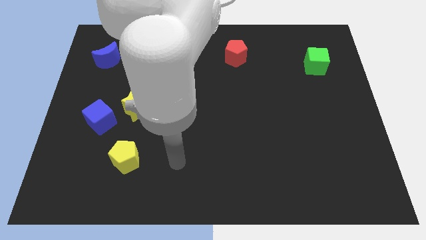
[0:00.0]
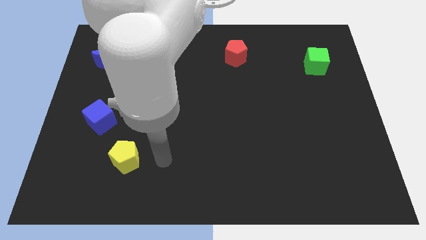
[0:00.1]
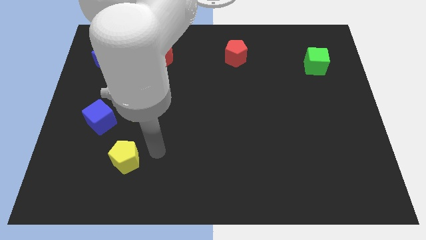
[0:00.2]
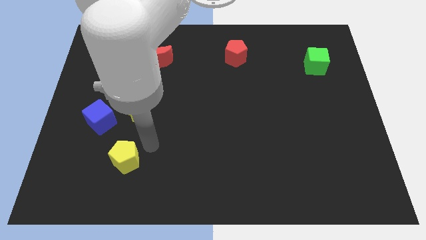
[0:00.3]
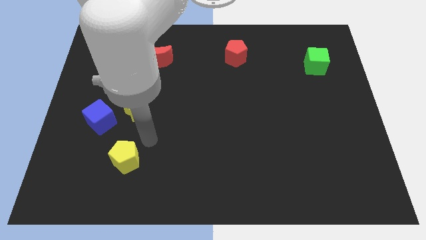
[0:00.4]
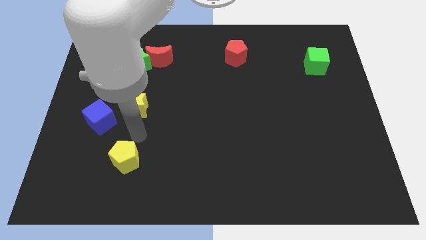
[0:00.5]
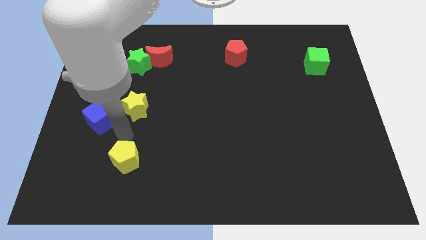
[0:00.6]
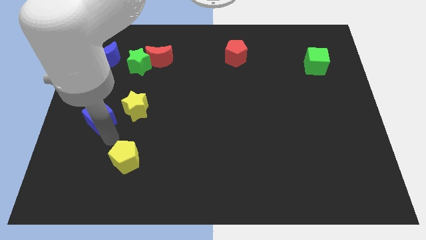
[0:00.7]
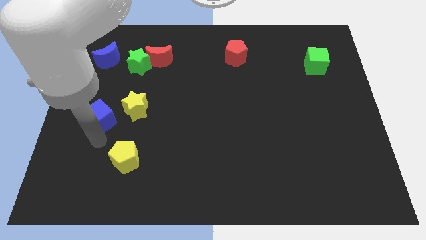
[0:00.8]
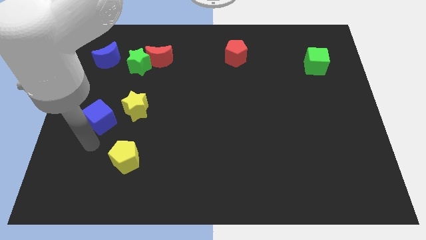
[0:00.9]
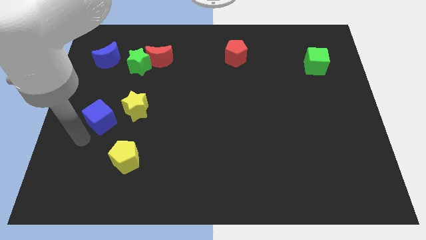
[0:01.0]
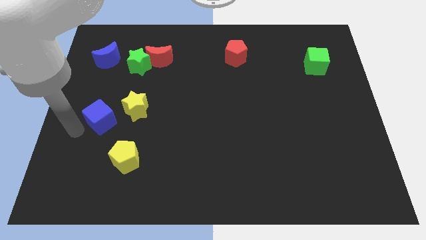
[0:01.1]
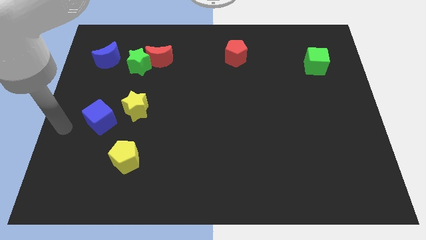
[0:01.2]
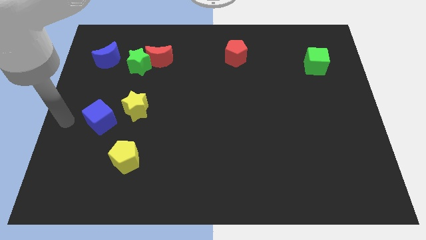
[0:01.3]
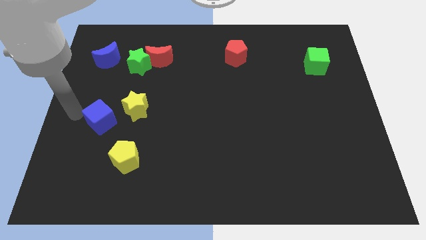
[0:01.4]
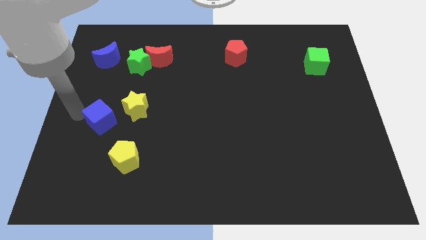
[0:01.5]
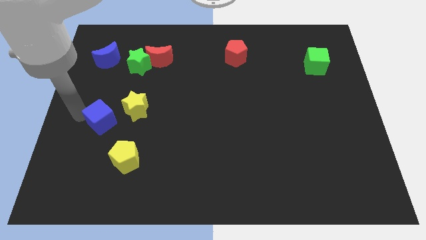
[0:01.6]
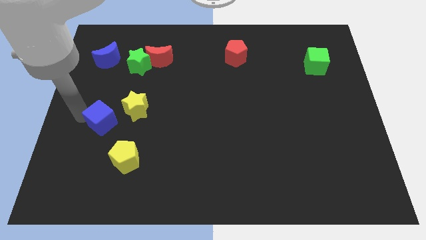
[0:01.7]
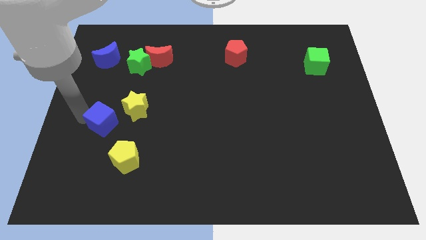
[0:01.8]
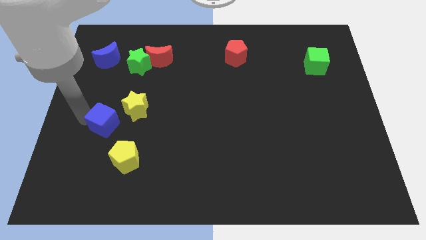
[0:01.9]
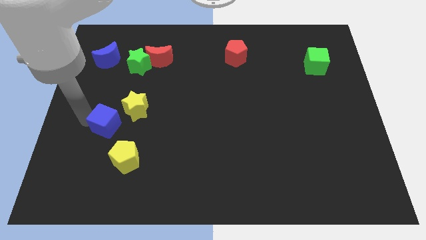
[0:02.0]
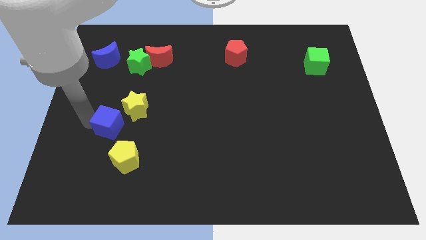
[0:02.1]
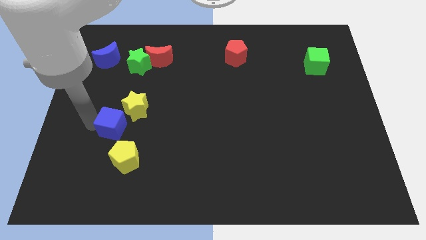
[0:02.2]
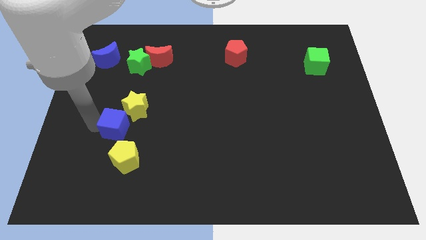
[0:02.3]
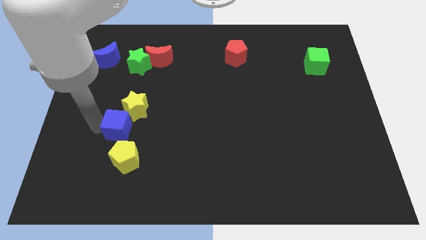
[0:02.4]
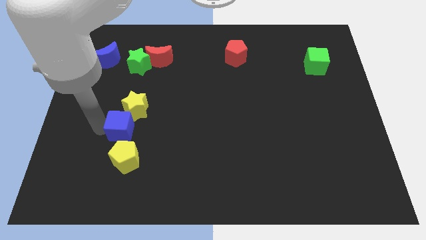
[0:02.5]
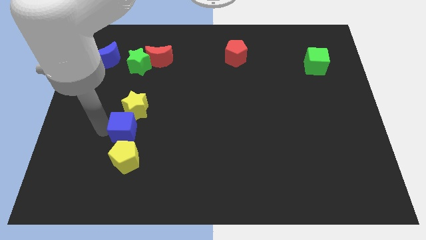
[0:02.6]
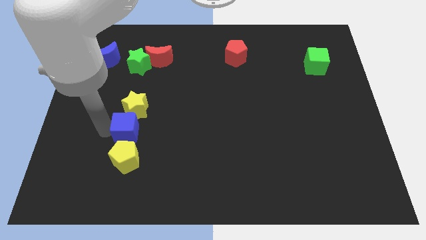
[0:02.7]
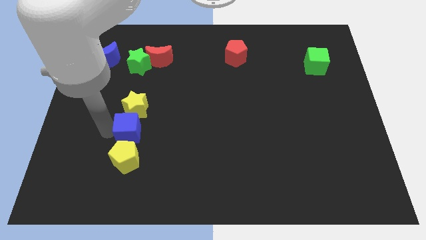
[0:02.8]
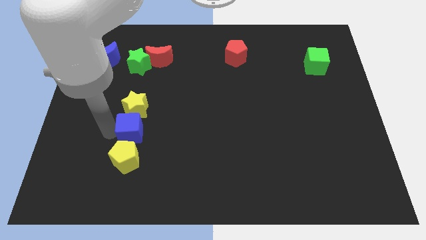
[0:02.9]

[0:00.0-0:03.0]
push the blue cube to the right slightly

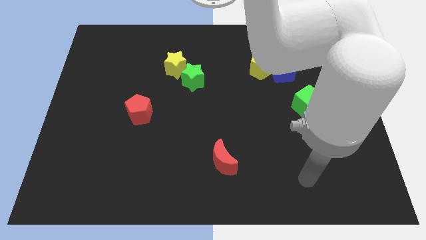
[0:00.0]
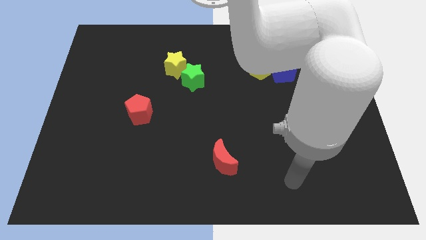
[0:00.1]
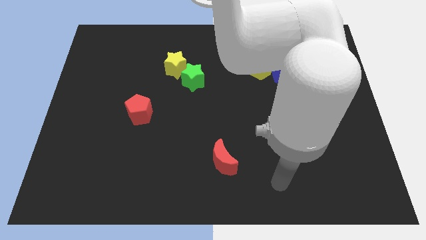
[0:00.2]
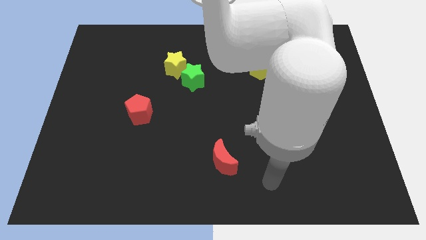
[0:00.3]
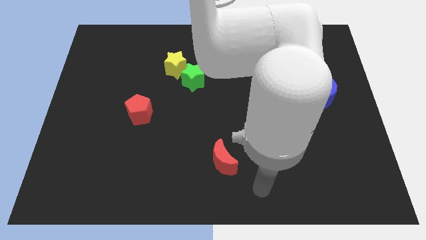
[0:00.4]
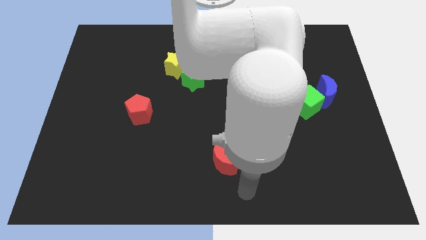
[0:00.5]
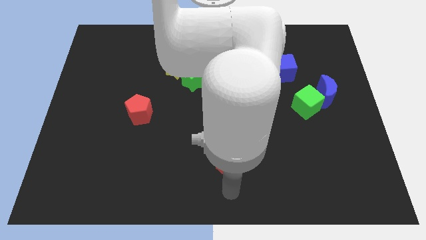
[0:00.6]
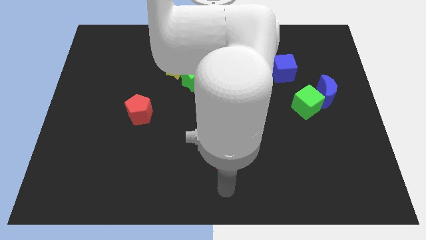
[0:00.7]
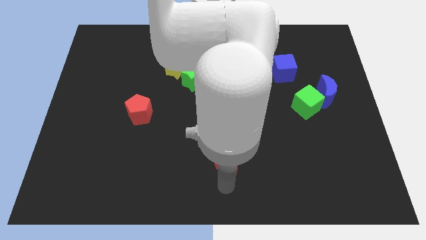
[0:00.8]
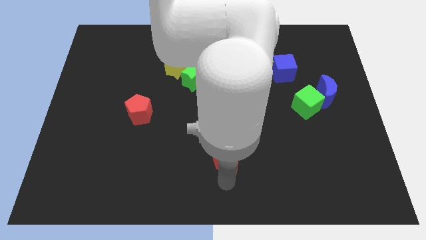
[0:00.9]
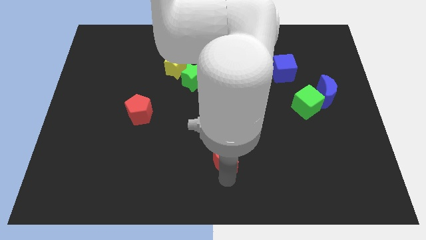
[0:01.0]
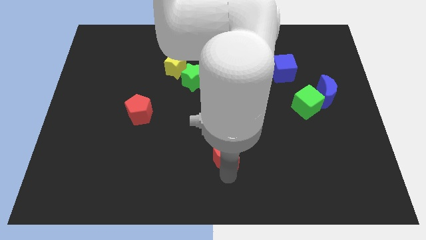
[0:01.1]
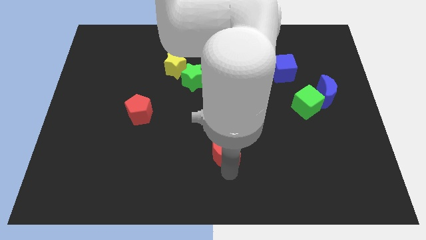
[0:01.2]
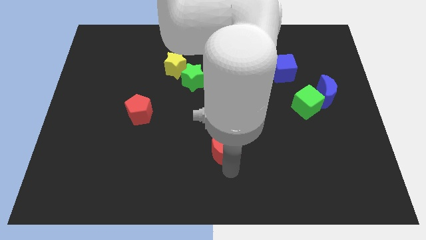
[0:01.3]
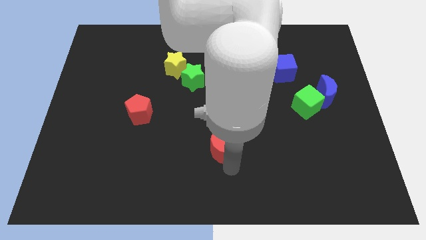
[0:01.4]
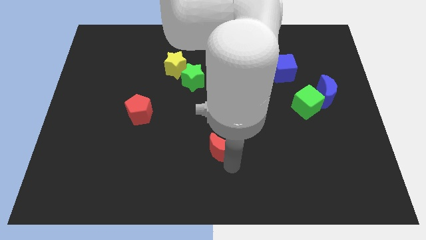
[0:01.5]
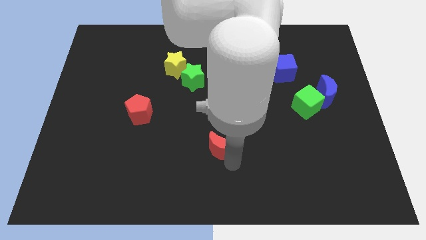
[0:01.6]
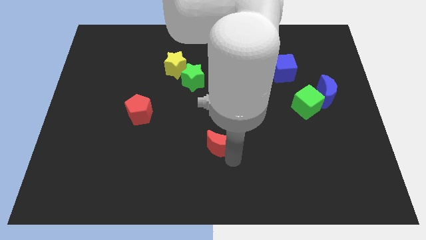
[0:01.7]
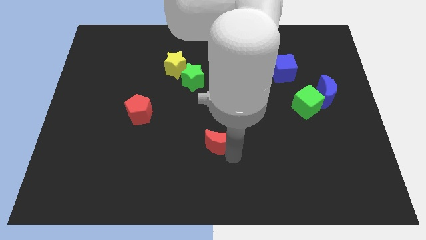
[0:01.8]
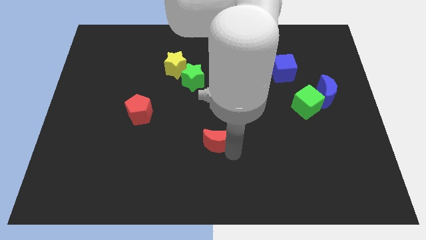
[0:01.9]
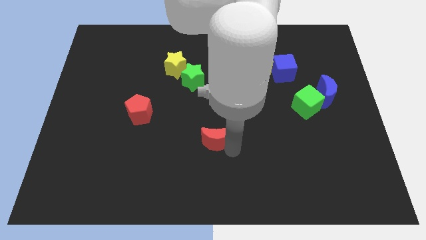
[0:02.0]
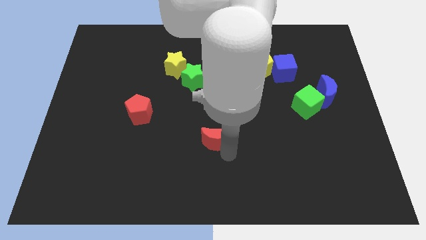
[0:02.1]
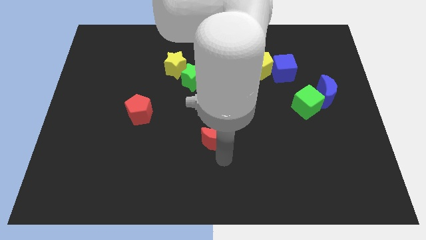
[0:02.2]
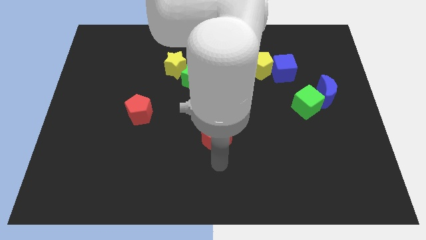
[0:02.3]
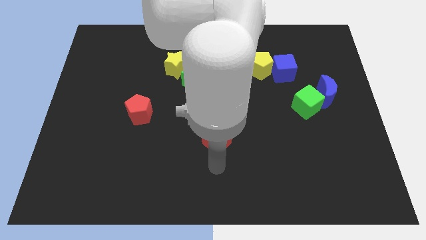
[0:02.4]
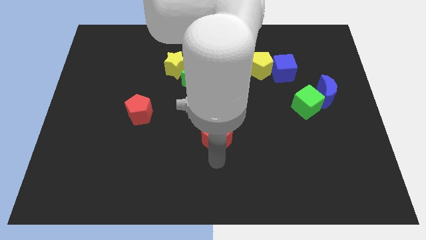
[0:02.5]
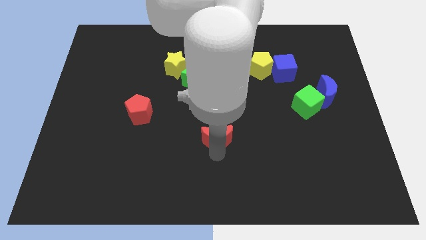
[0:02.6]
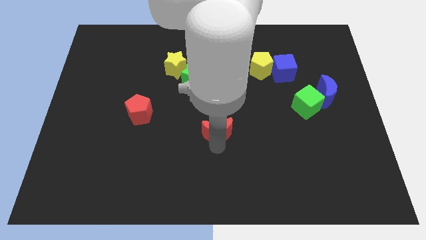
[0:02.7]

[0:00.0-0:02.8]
slightly move the red moon up

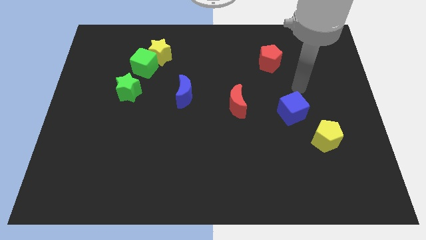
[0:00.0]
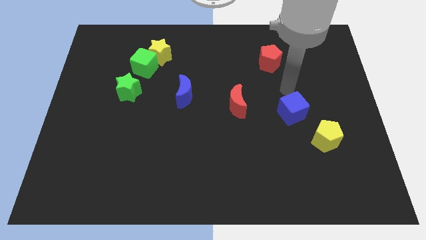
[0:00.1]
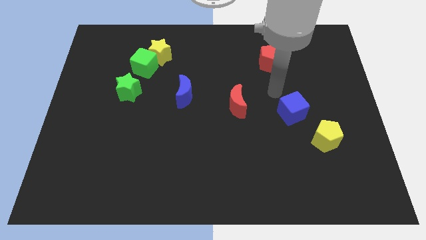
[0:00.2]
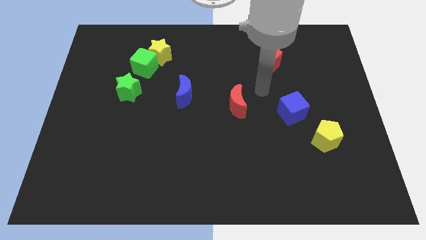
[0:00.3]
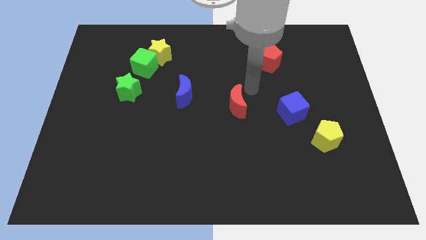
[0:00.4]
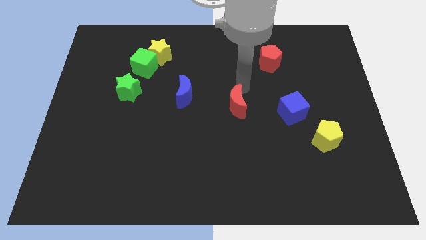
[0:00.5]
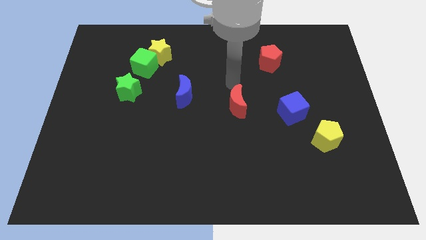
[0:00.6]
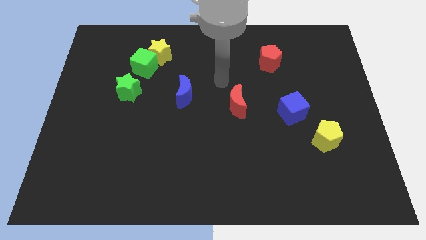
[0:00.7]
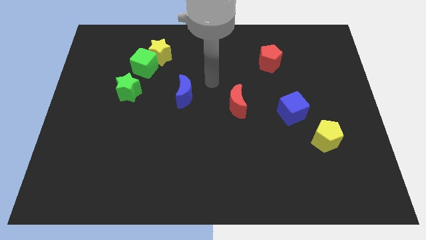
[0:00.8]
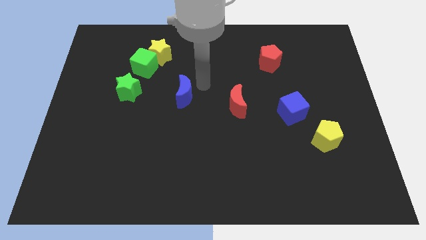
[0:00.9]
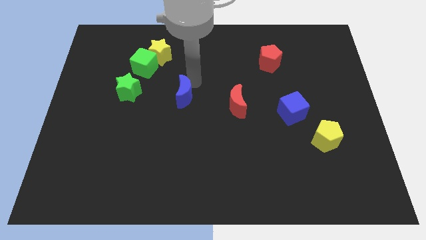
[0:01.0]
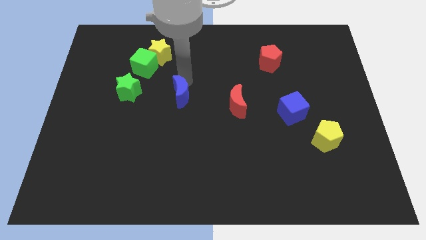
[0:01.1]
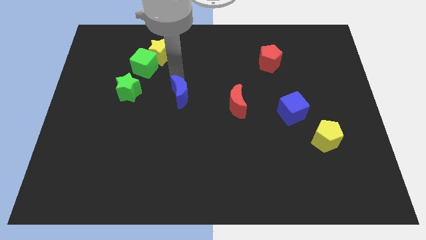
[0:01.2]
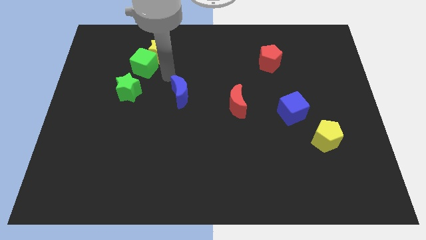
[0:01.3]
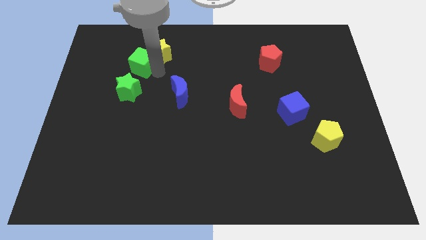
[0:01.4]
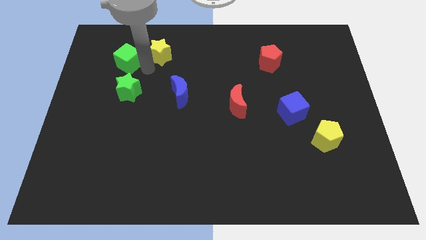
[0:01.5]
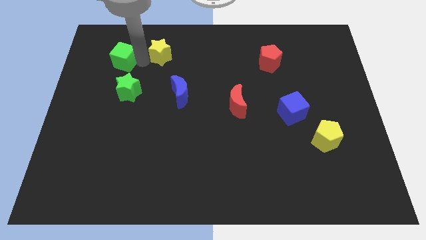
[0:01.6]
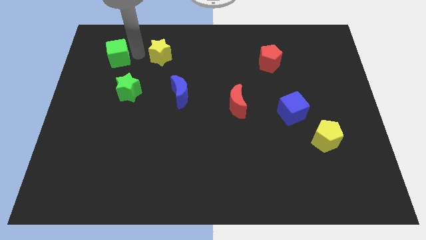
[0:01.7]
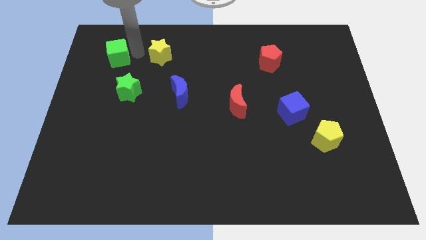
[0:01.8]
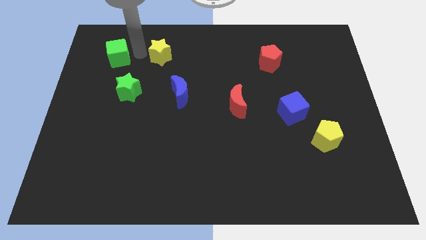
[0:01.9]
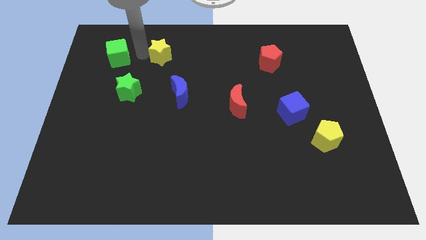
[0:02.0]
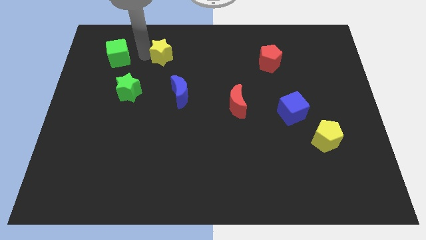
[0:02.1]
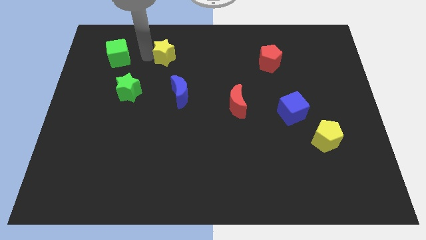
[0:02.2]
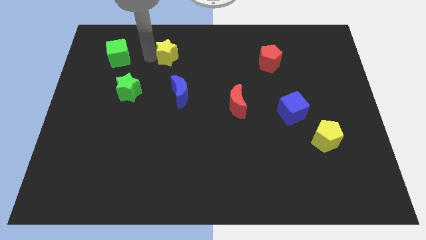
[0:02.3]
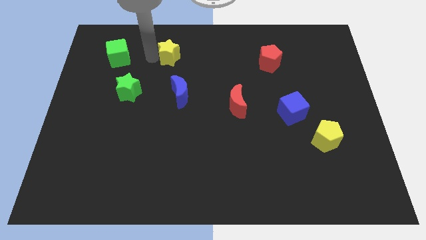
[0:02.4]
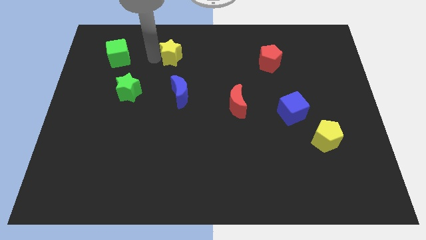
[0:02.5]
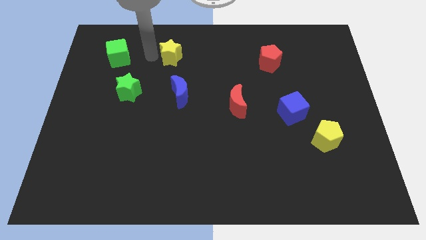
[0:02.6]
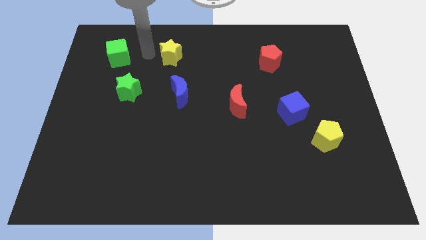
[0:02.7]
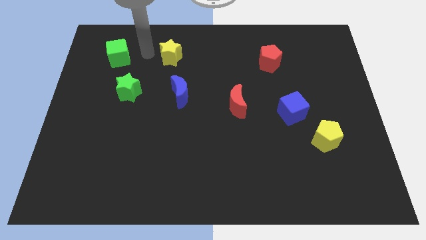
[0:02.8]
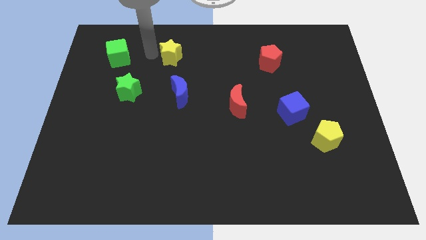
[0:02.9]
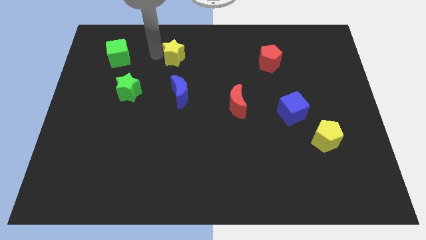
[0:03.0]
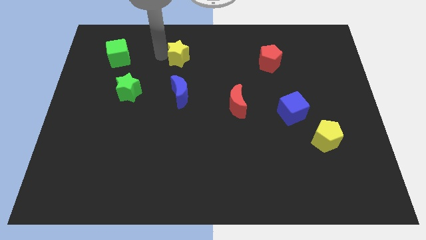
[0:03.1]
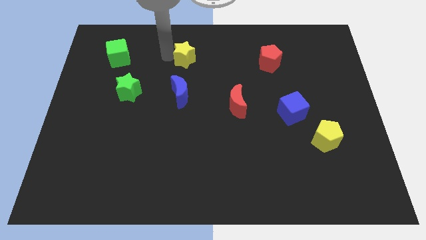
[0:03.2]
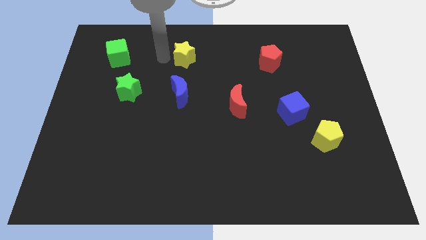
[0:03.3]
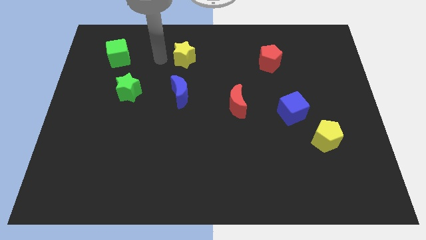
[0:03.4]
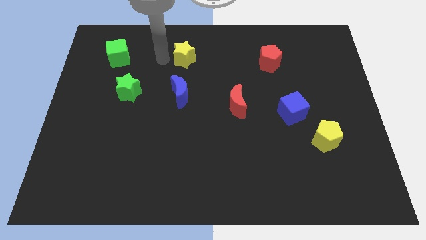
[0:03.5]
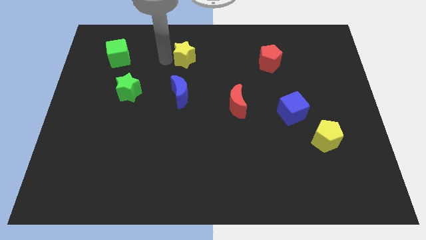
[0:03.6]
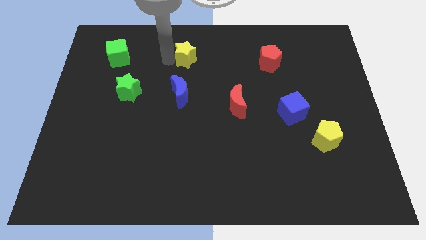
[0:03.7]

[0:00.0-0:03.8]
slightly slide the yellow star to the right
